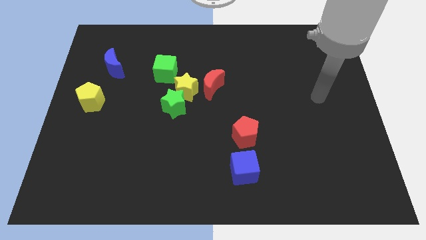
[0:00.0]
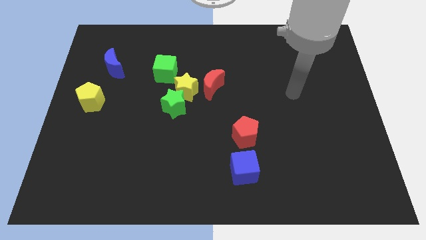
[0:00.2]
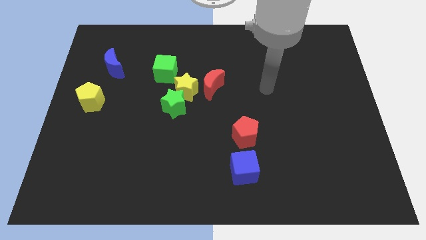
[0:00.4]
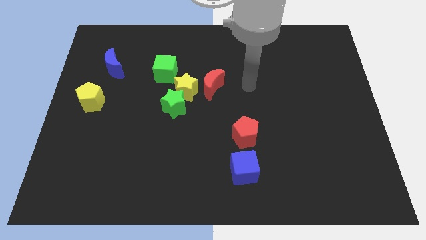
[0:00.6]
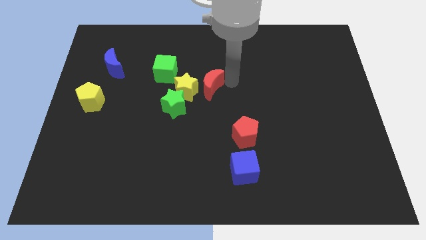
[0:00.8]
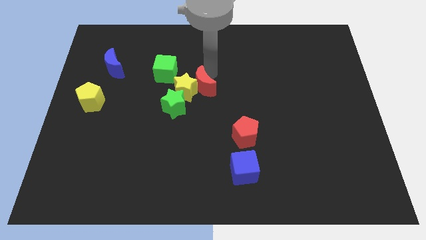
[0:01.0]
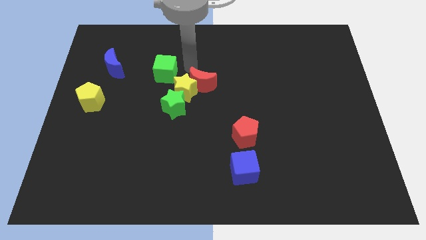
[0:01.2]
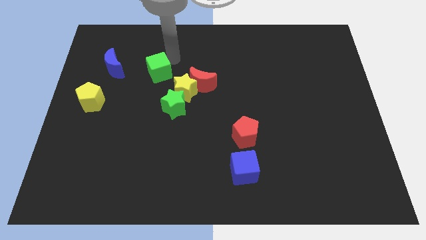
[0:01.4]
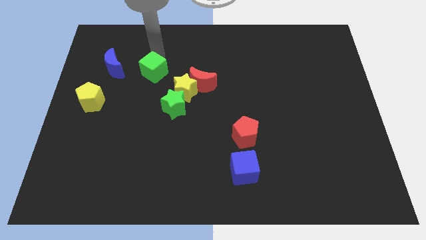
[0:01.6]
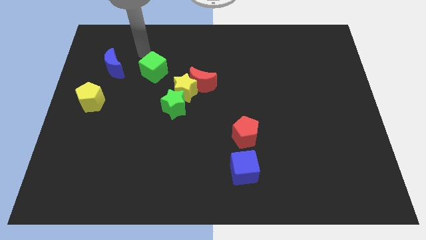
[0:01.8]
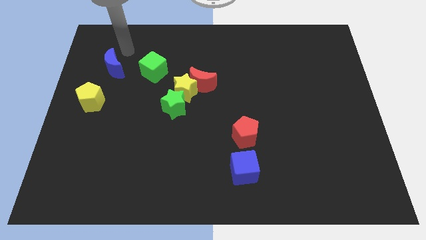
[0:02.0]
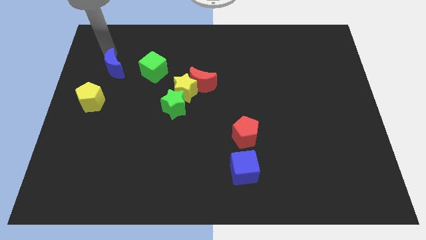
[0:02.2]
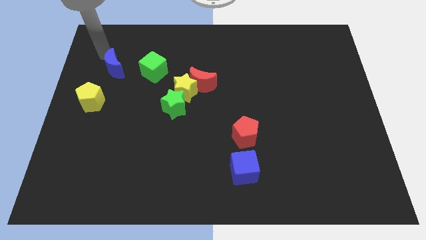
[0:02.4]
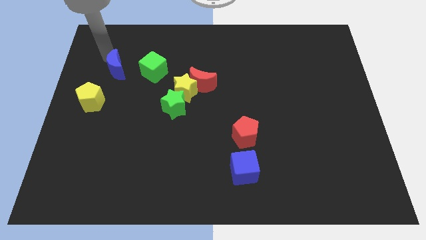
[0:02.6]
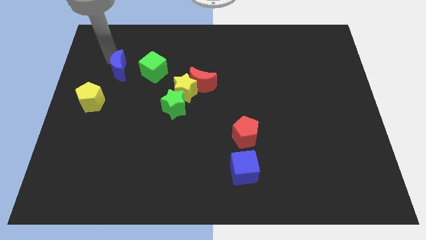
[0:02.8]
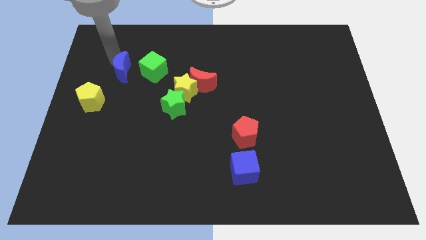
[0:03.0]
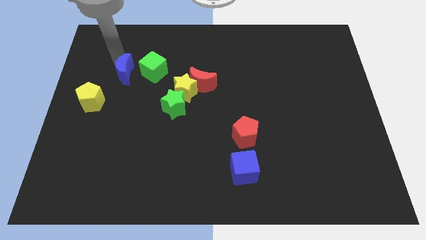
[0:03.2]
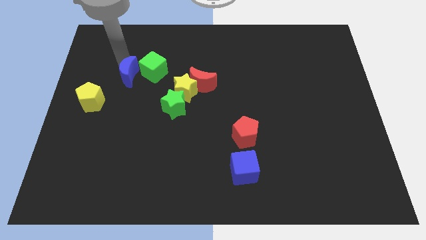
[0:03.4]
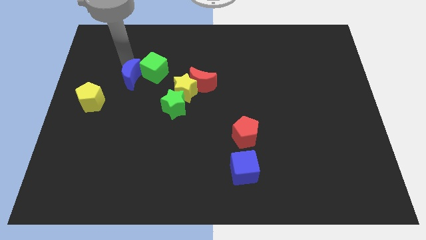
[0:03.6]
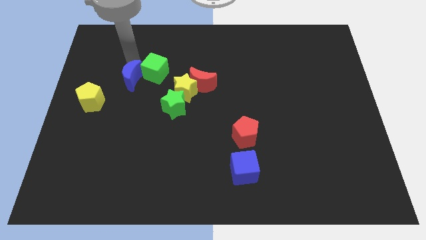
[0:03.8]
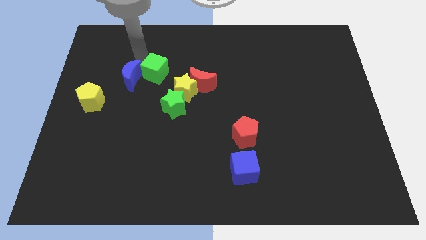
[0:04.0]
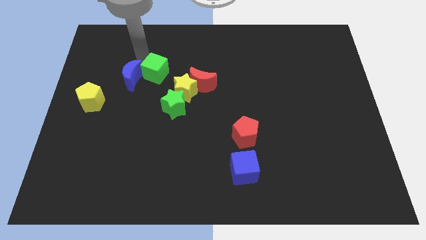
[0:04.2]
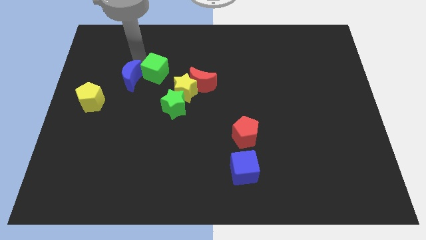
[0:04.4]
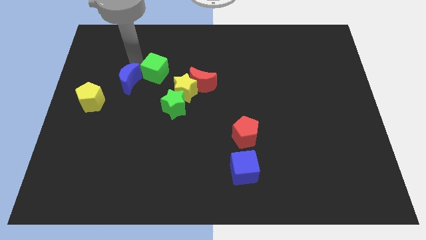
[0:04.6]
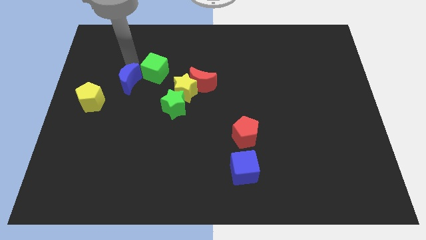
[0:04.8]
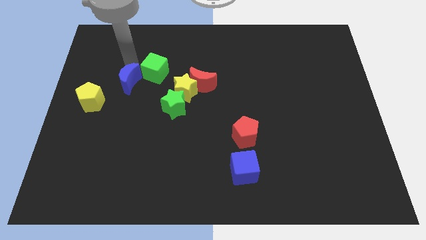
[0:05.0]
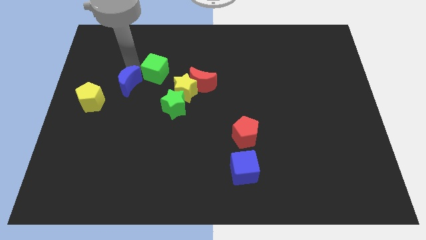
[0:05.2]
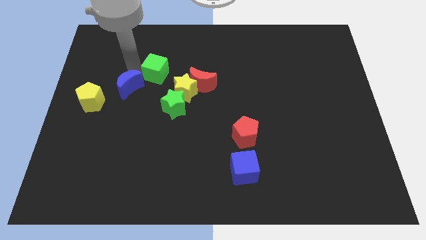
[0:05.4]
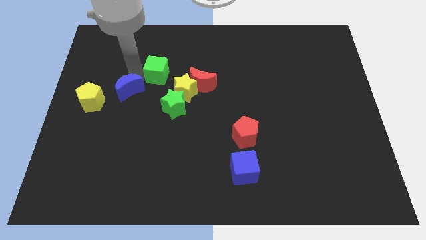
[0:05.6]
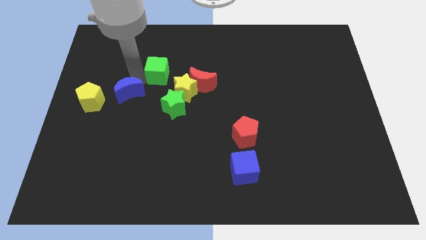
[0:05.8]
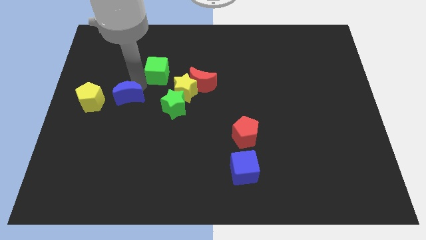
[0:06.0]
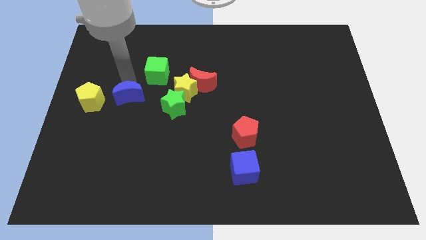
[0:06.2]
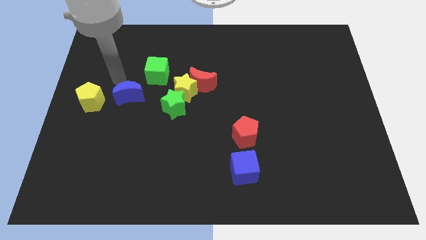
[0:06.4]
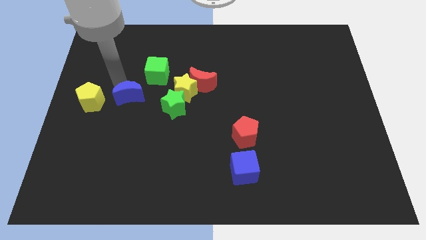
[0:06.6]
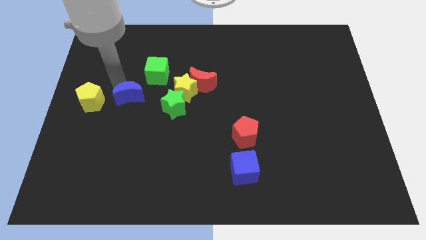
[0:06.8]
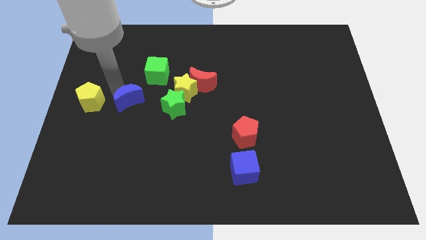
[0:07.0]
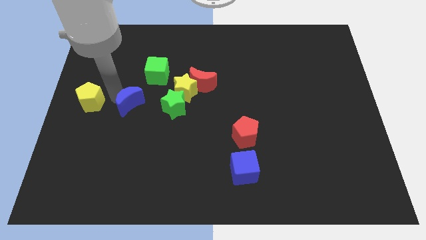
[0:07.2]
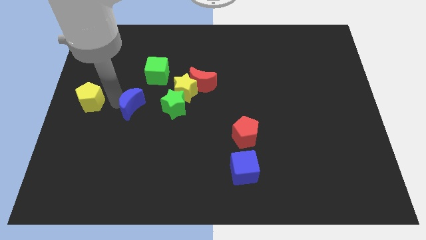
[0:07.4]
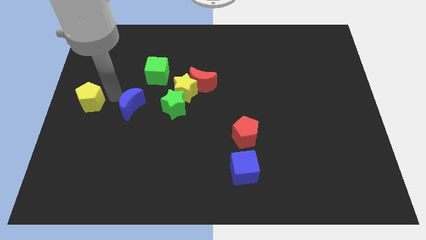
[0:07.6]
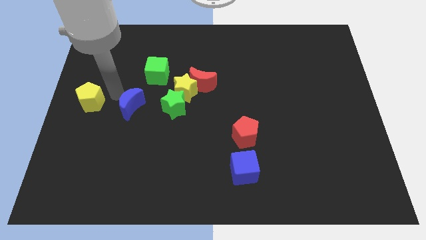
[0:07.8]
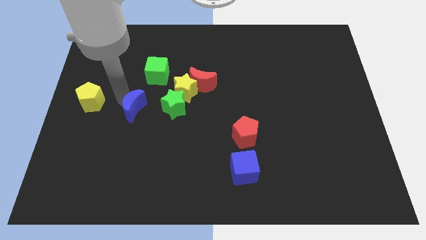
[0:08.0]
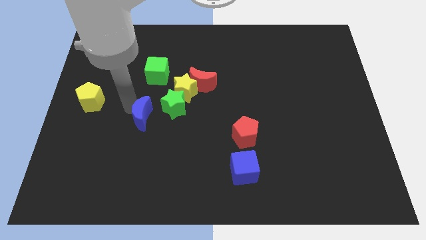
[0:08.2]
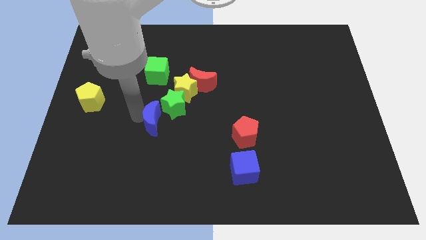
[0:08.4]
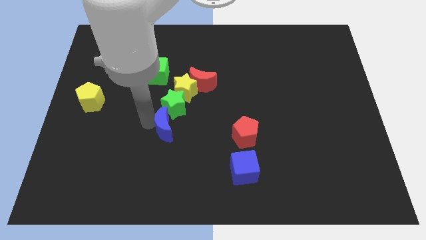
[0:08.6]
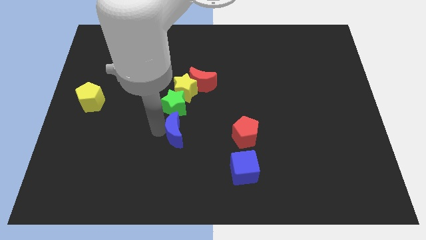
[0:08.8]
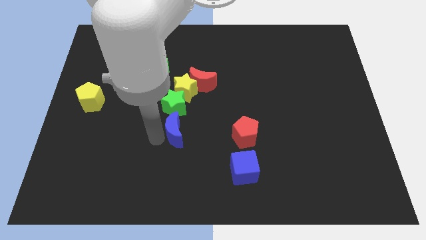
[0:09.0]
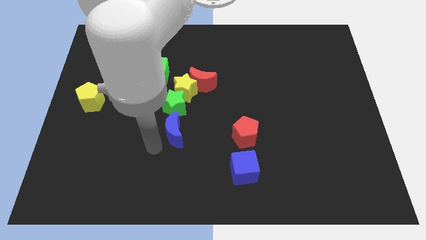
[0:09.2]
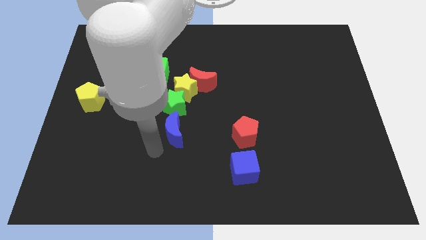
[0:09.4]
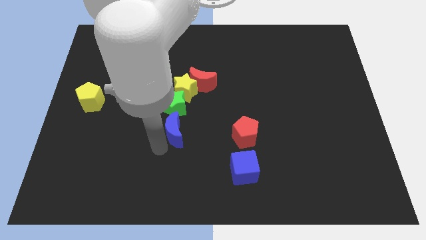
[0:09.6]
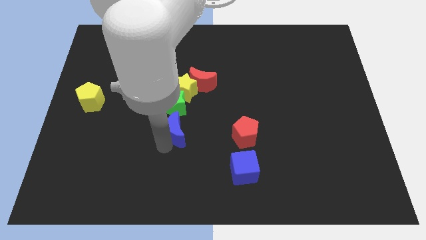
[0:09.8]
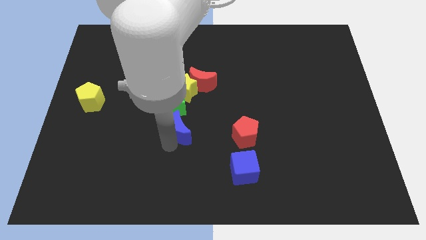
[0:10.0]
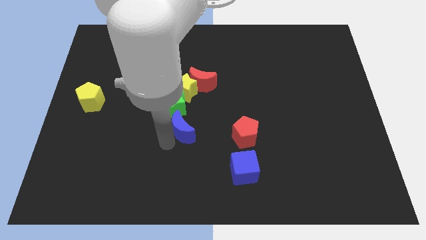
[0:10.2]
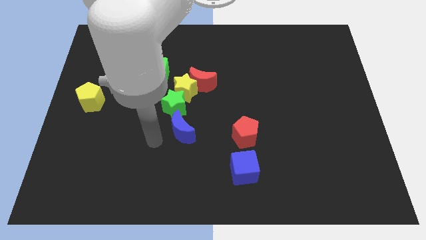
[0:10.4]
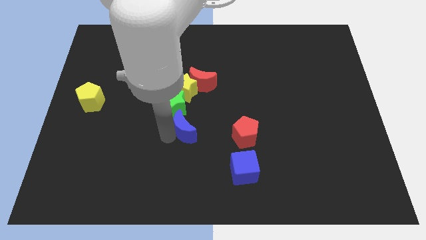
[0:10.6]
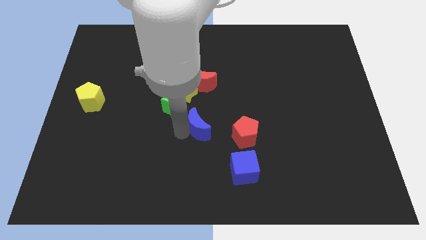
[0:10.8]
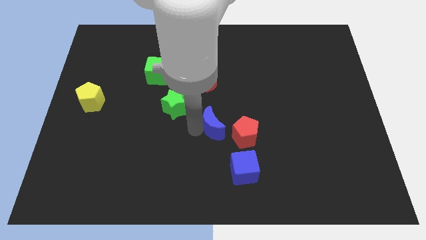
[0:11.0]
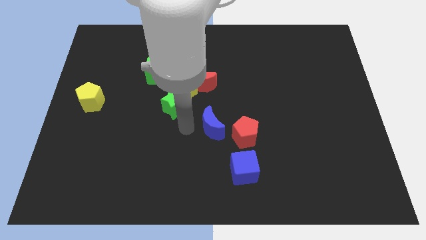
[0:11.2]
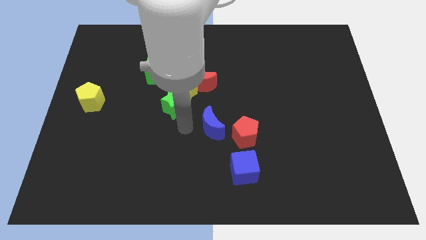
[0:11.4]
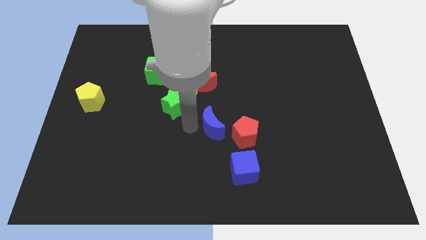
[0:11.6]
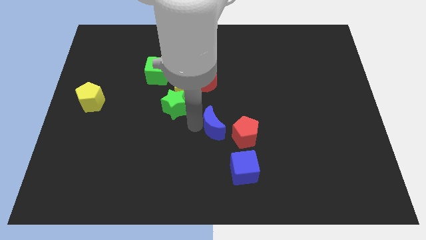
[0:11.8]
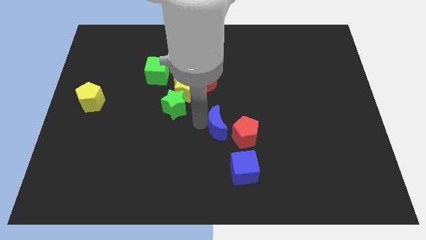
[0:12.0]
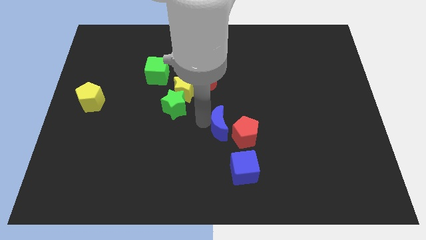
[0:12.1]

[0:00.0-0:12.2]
push the blue moon close to the red pentagon
